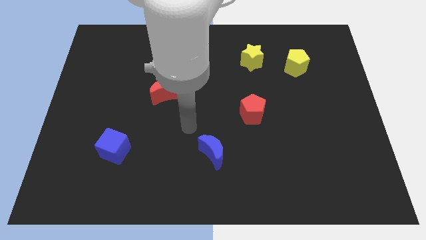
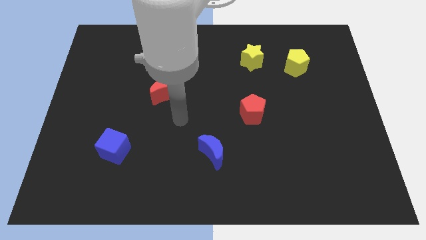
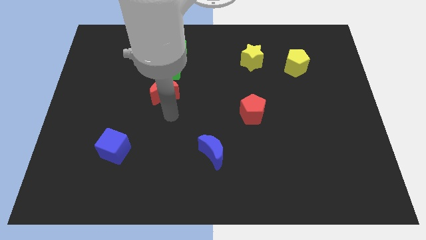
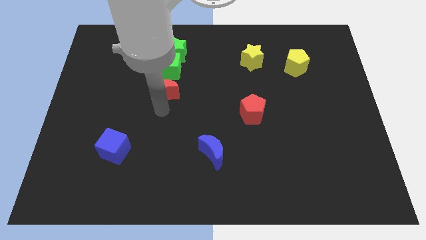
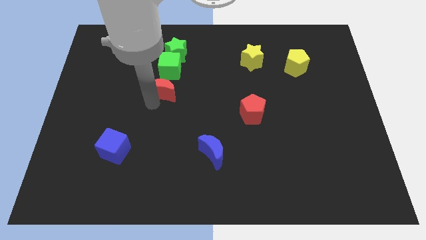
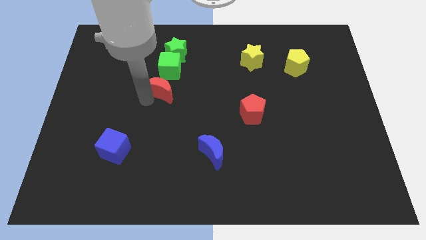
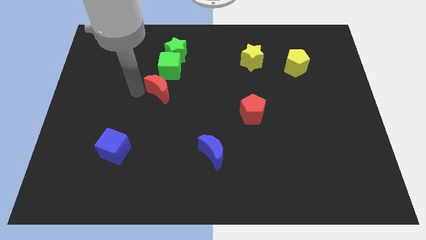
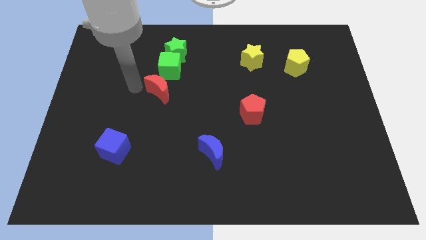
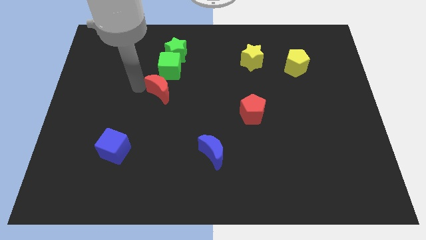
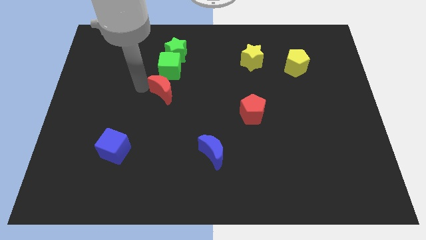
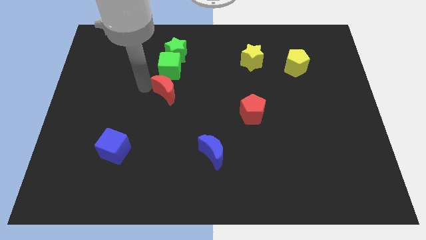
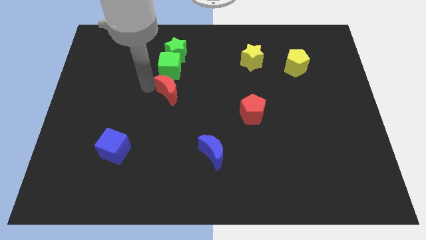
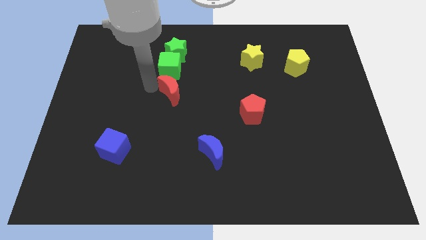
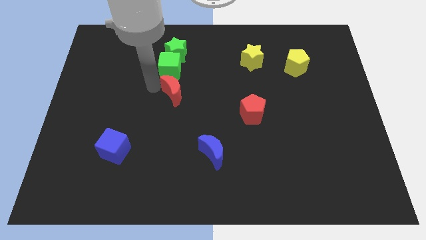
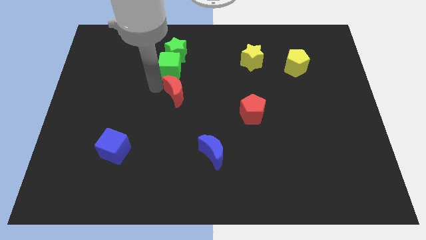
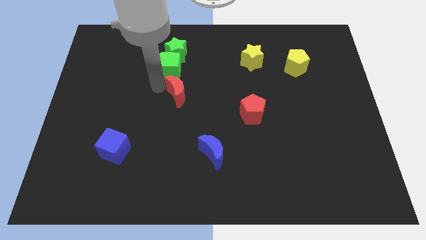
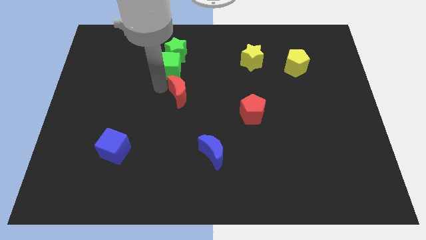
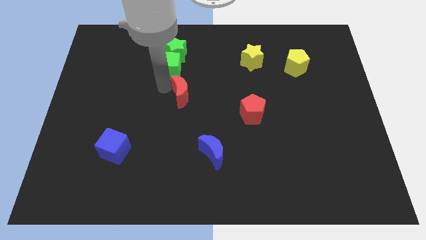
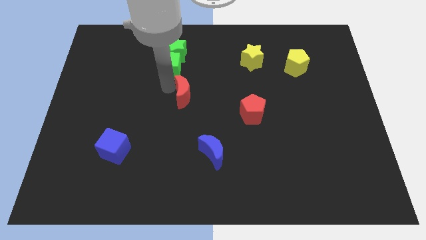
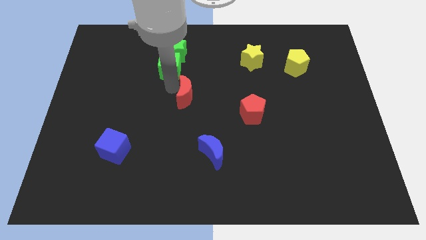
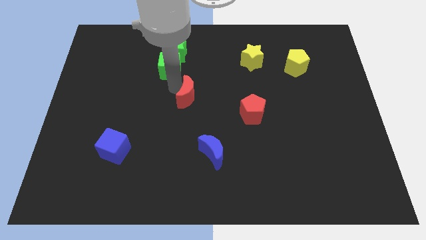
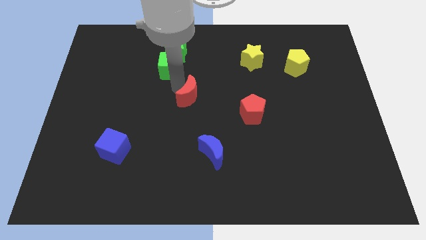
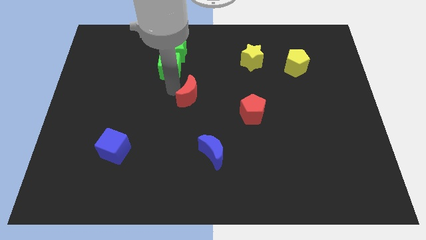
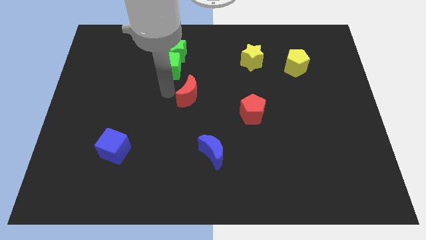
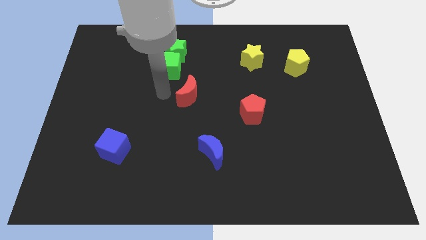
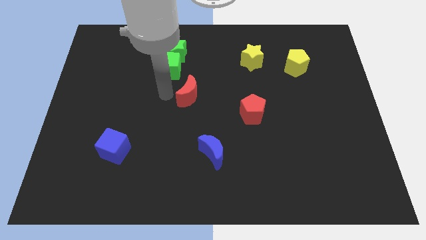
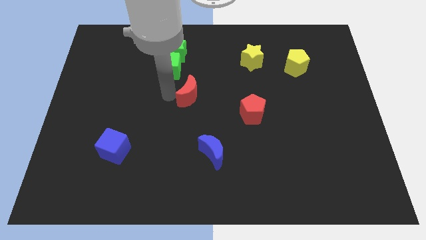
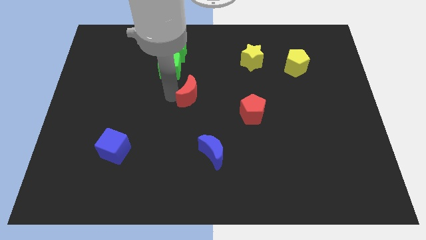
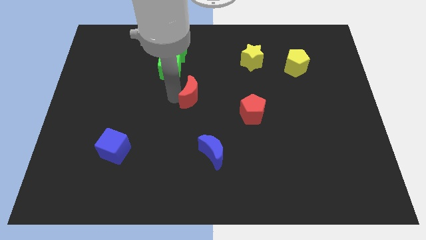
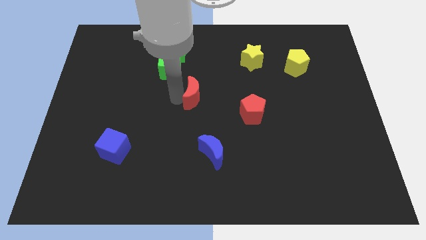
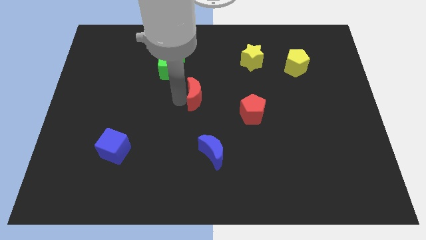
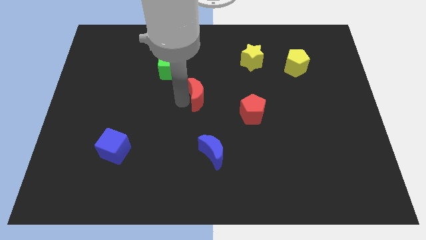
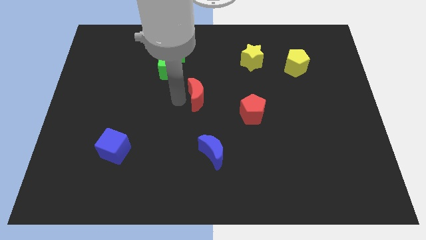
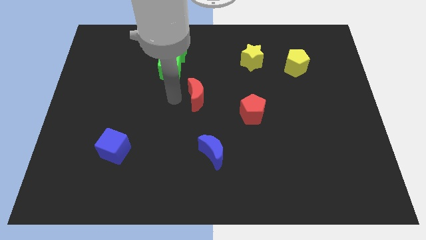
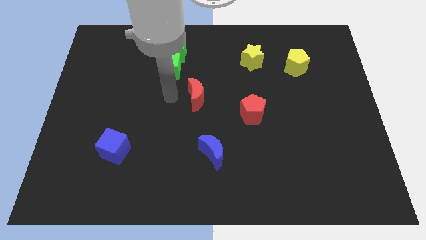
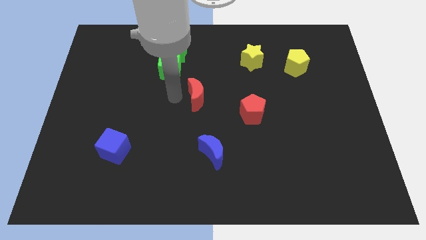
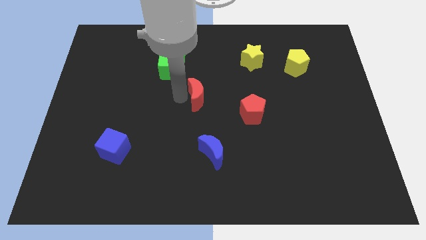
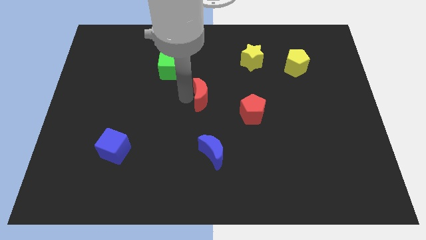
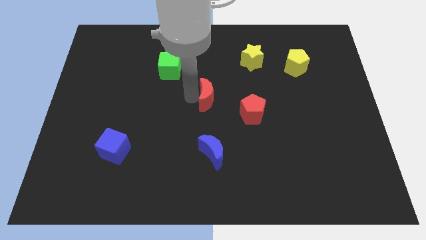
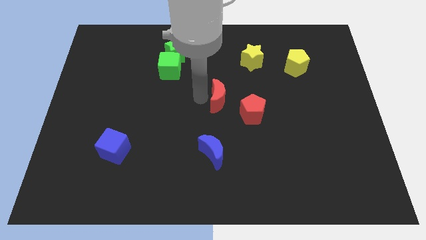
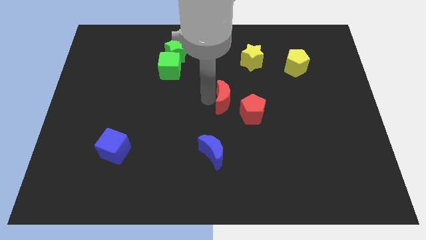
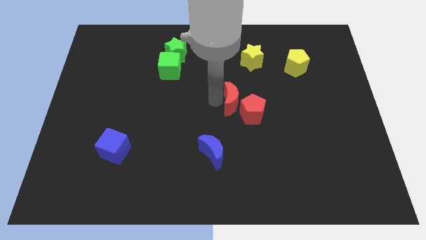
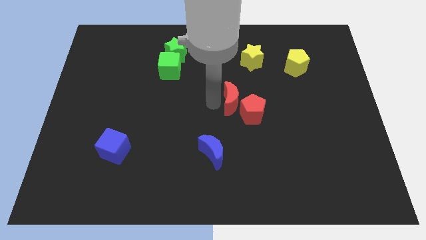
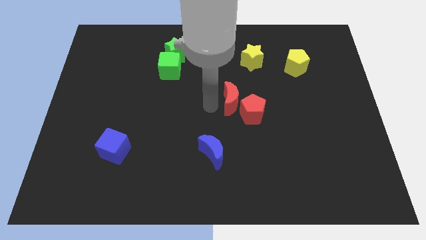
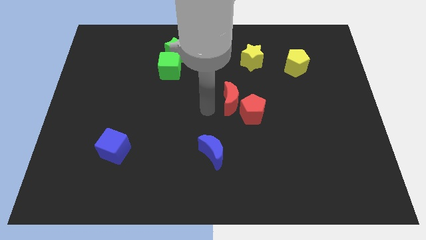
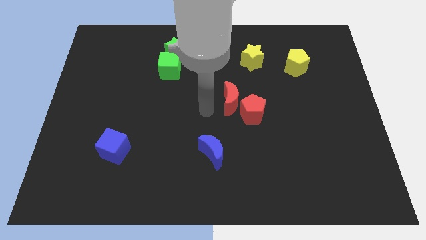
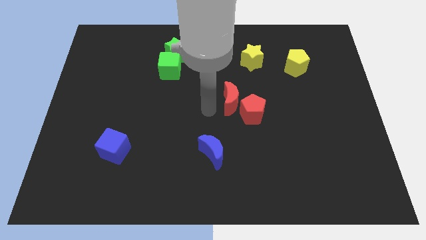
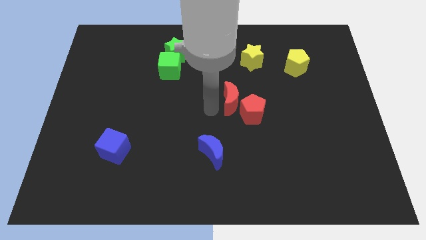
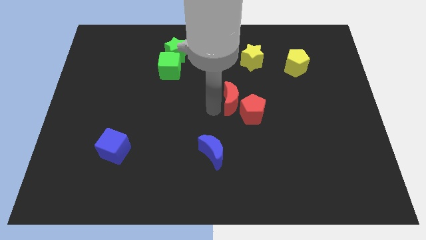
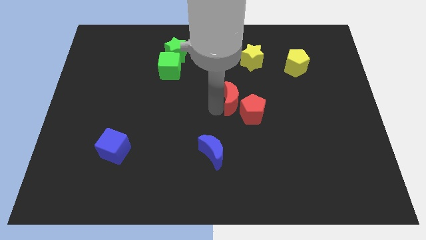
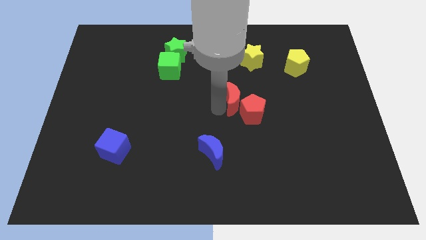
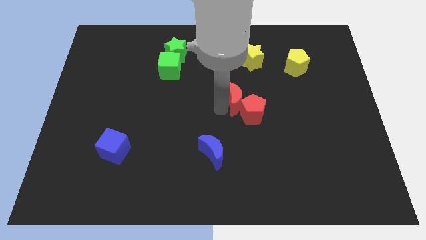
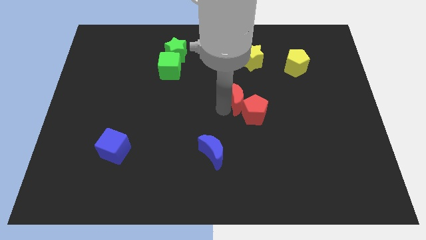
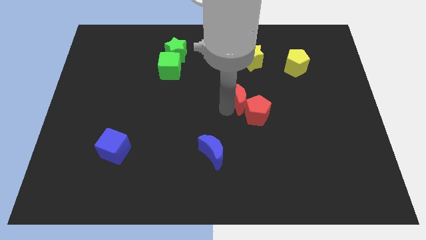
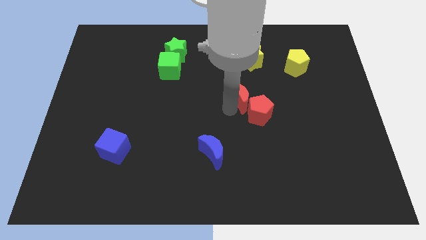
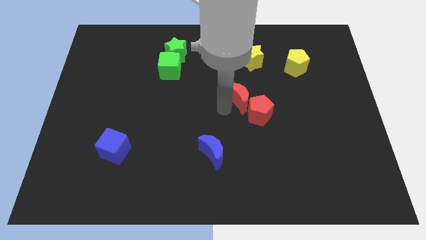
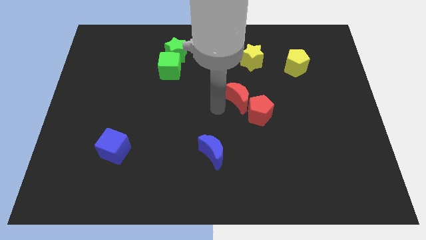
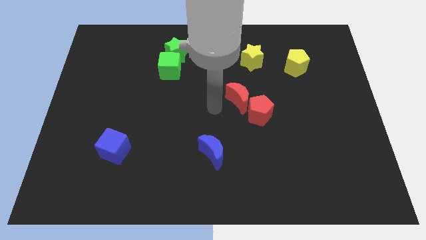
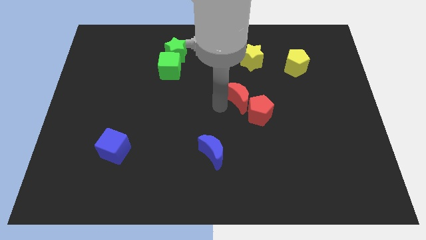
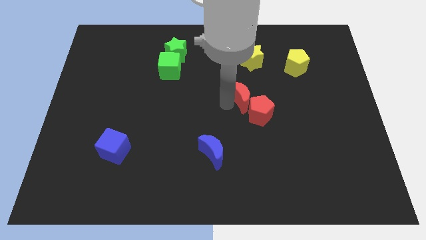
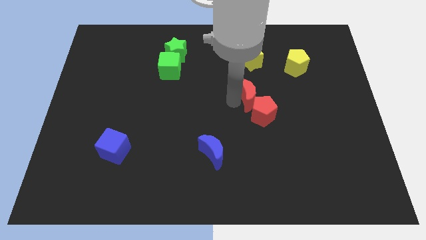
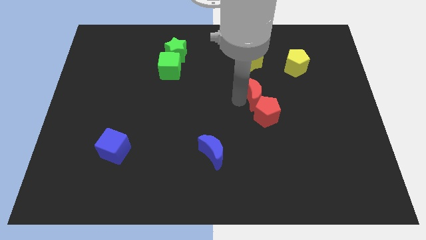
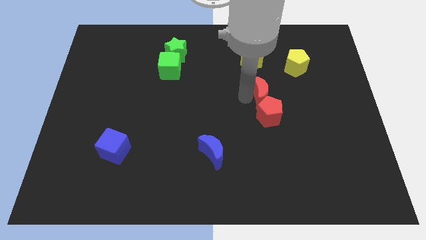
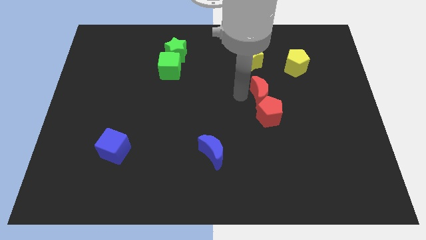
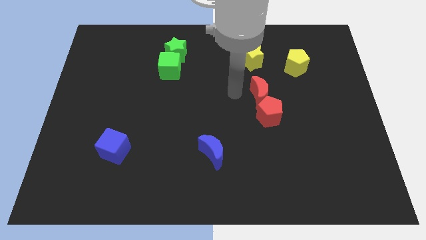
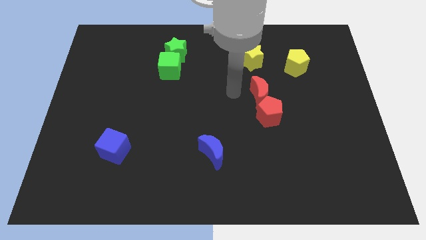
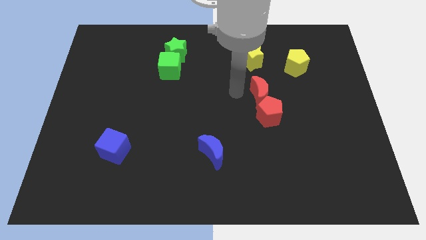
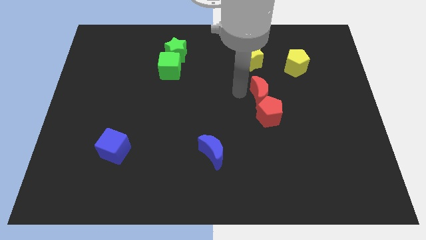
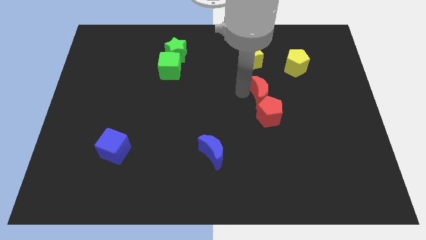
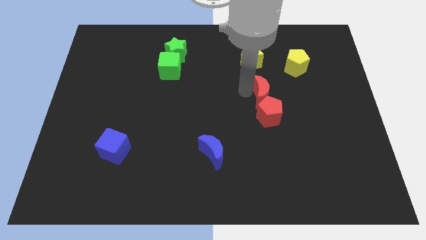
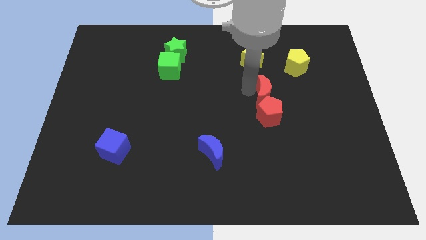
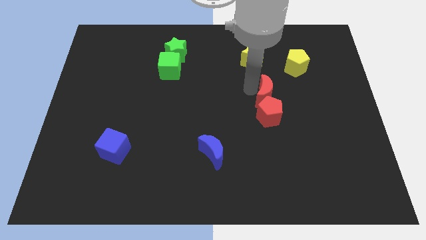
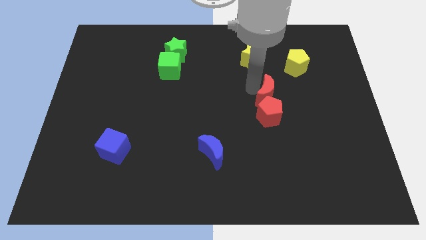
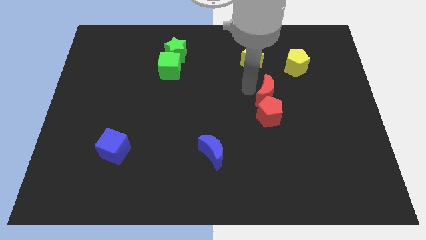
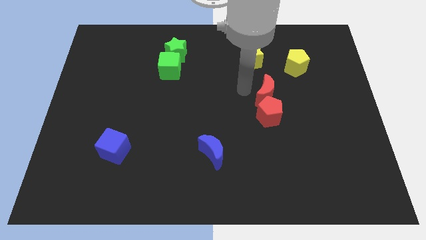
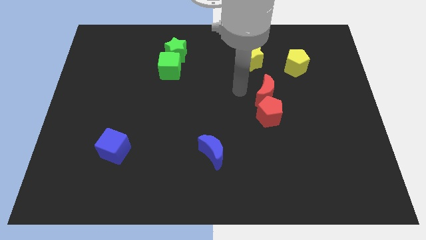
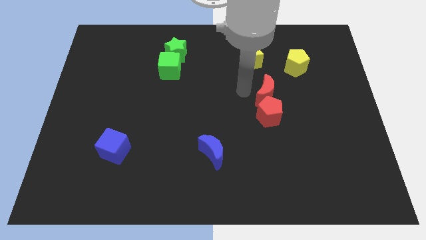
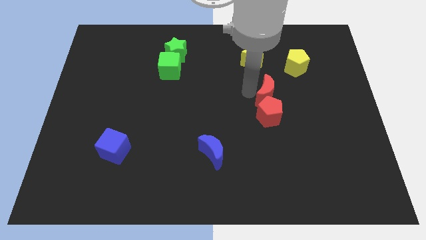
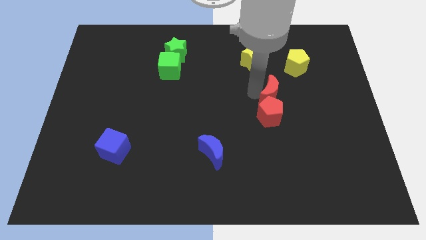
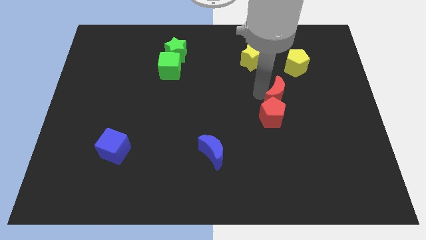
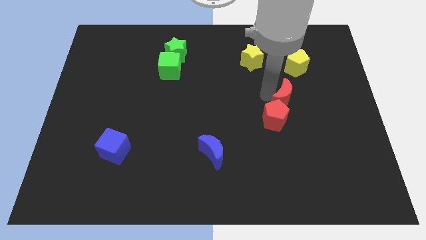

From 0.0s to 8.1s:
push the red moon to the bottom of the yellow pentagon

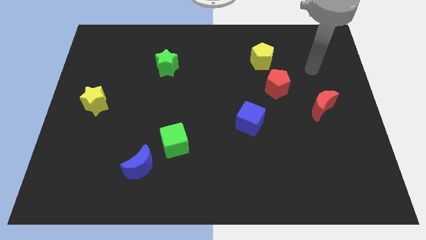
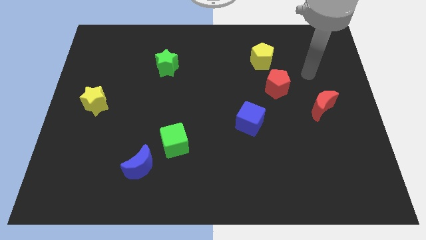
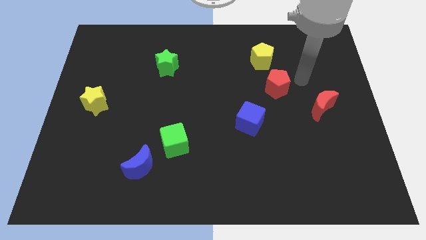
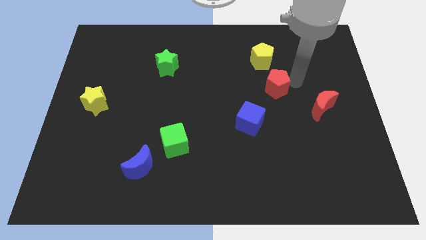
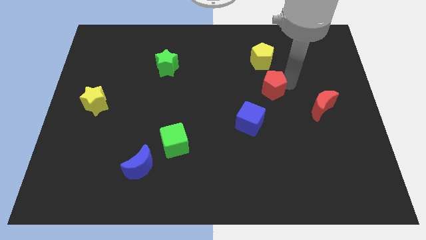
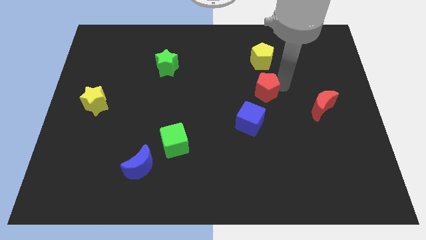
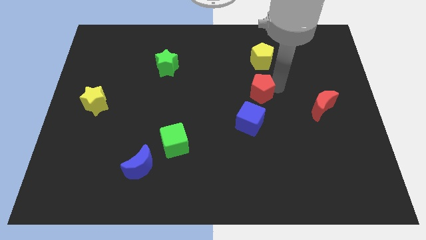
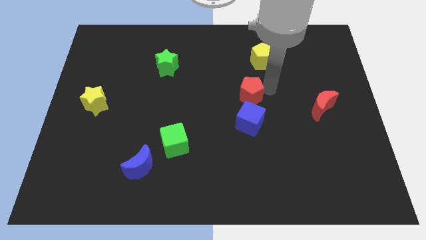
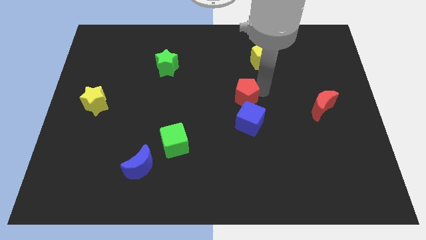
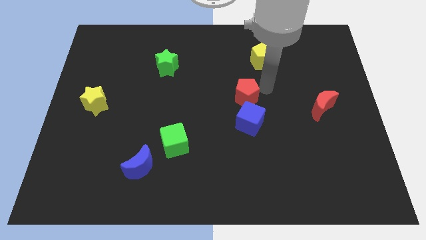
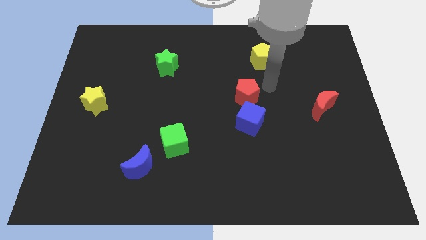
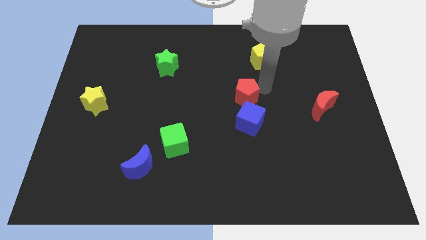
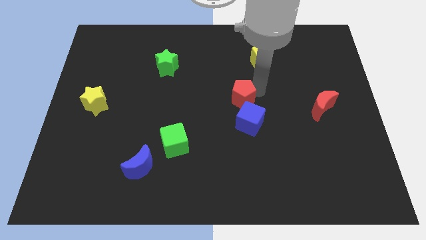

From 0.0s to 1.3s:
move the red pentagon to the top left side of the blue cube
